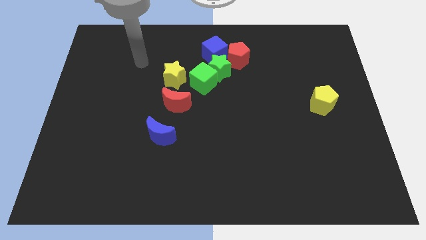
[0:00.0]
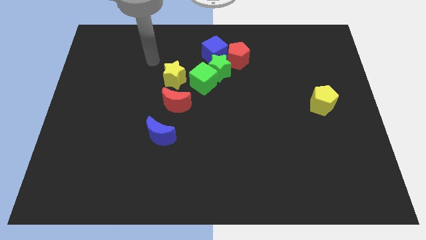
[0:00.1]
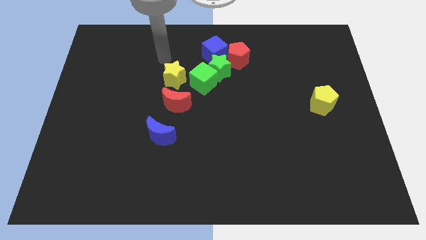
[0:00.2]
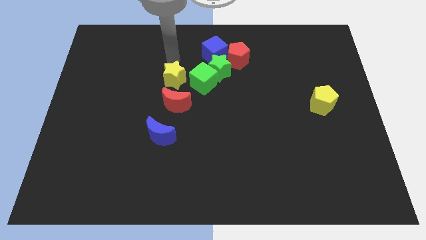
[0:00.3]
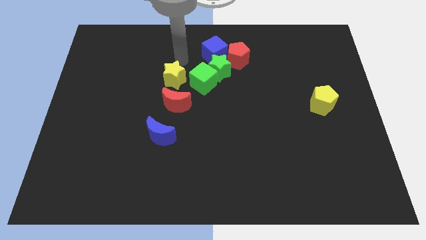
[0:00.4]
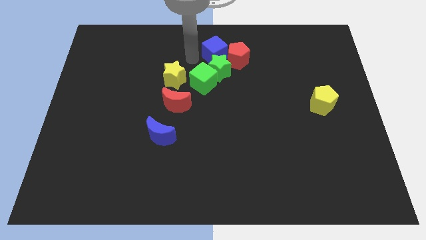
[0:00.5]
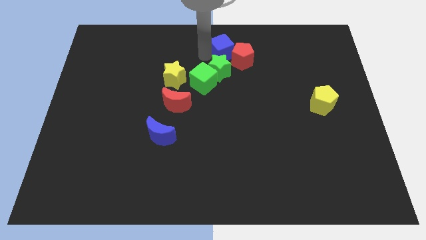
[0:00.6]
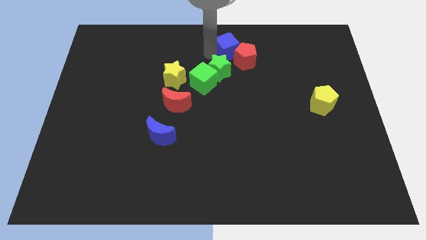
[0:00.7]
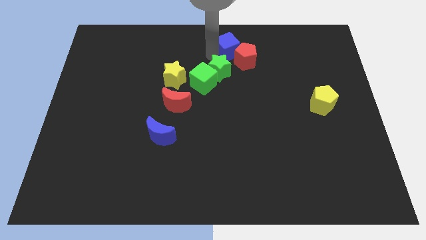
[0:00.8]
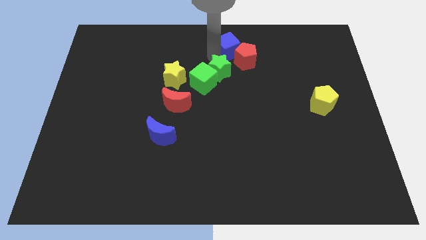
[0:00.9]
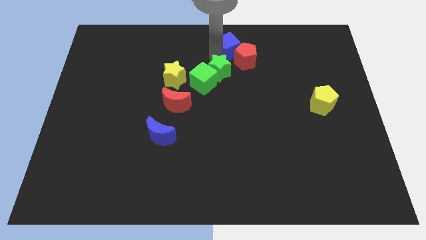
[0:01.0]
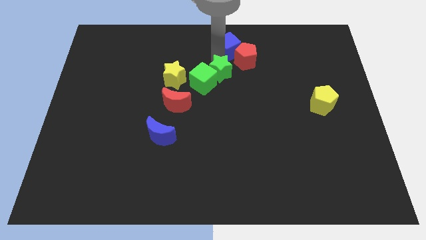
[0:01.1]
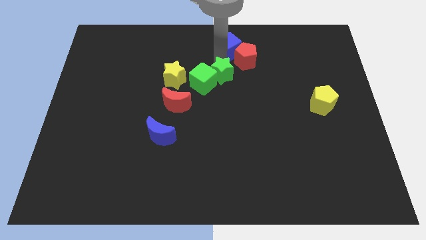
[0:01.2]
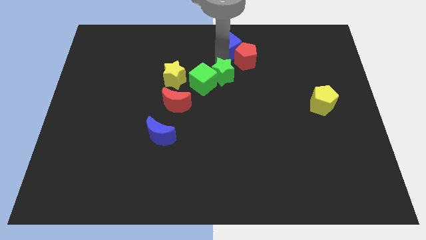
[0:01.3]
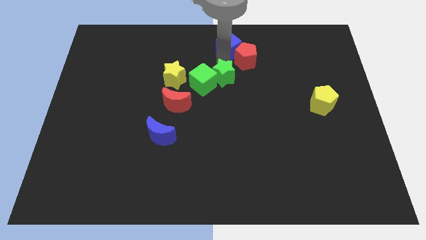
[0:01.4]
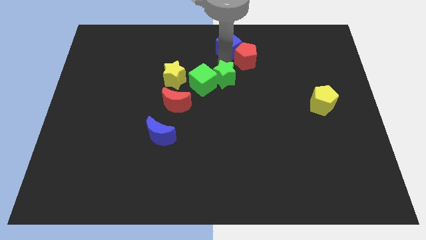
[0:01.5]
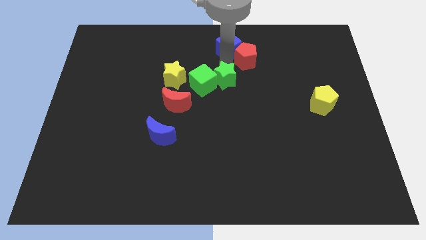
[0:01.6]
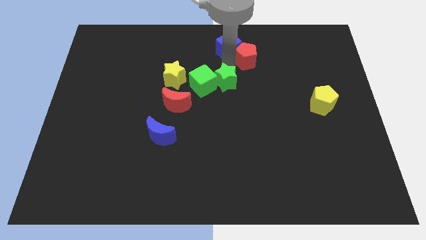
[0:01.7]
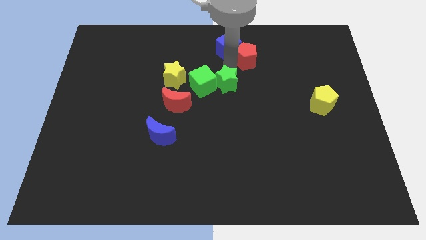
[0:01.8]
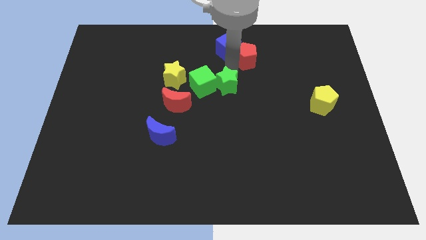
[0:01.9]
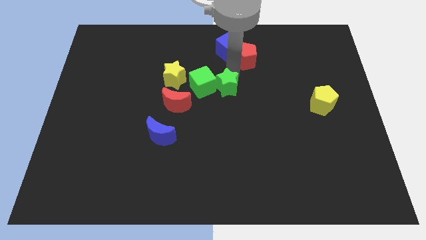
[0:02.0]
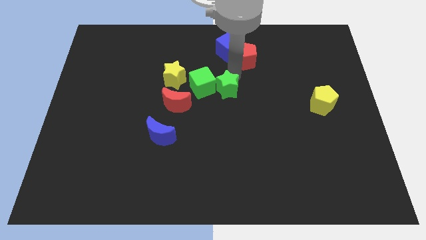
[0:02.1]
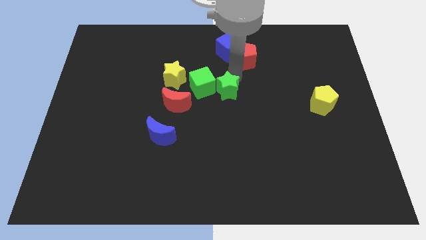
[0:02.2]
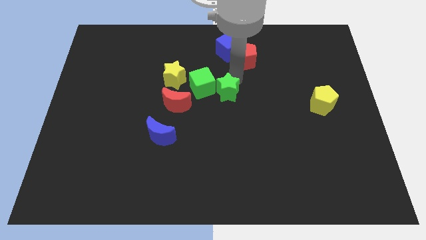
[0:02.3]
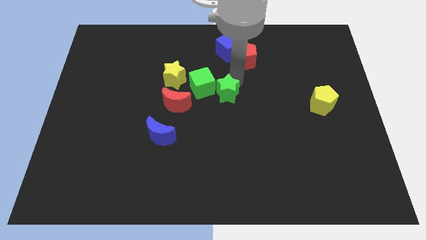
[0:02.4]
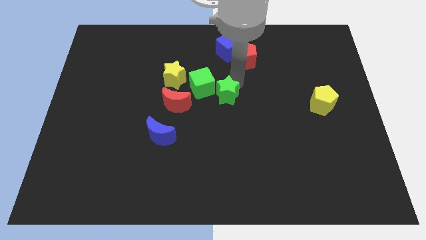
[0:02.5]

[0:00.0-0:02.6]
move the green star away from the group

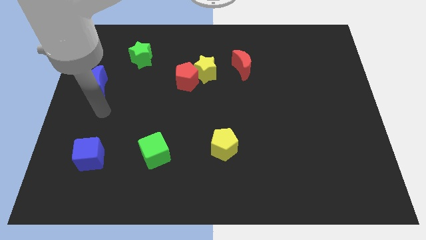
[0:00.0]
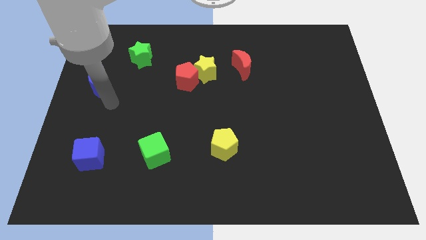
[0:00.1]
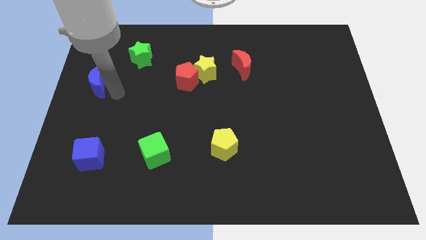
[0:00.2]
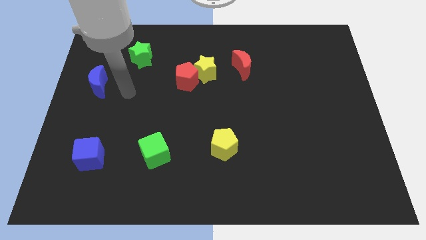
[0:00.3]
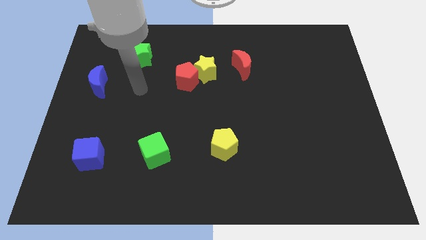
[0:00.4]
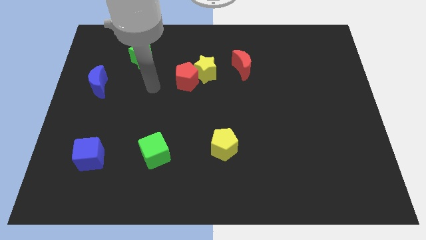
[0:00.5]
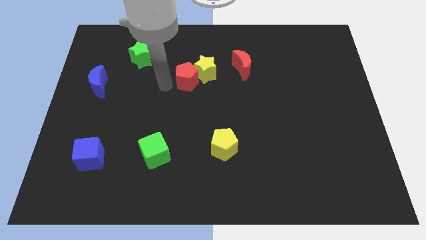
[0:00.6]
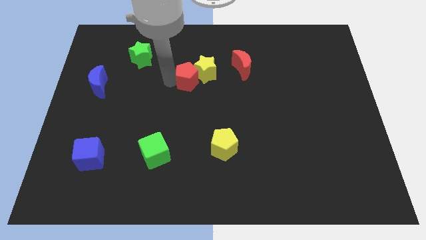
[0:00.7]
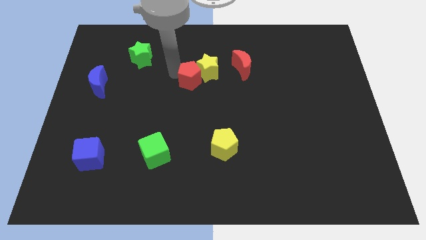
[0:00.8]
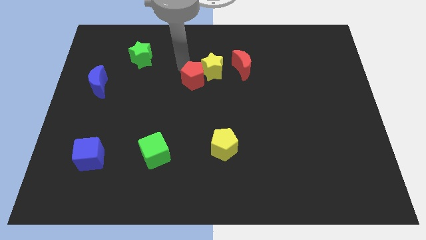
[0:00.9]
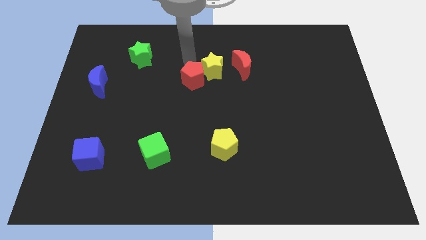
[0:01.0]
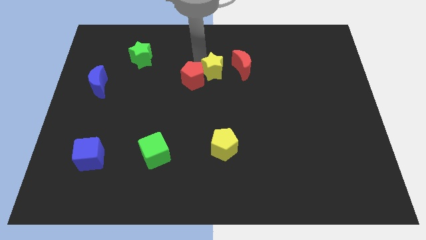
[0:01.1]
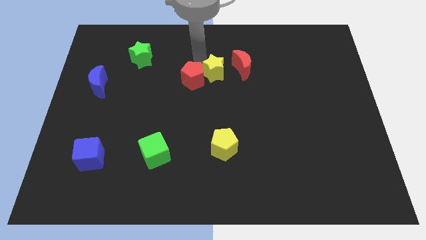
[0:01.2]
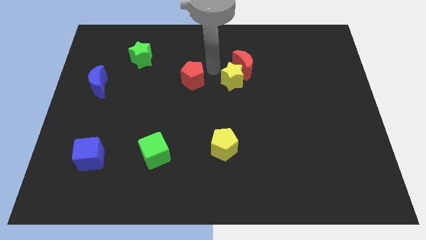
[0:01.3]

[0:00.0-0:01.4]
move the red pentagon away from the yellow star

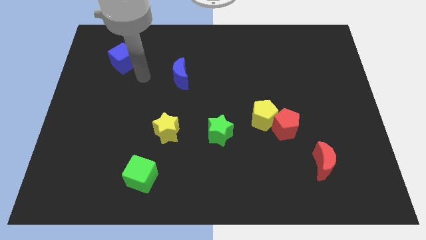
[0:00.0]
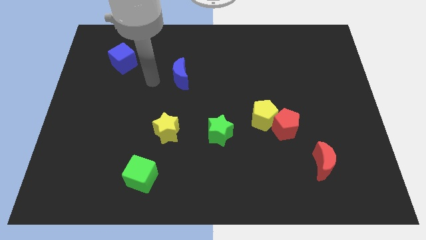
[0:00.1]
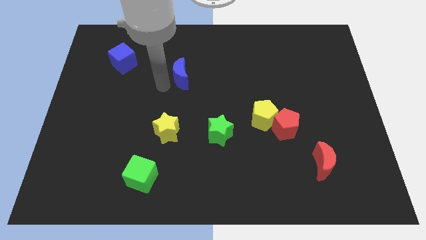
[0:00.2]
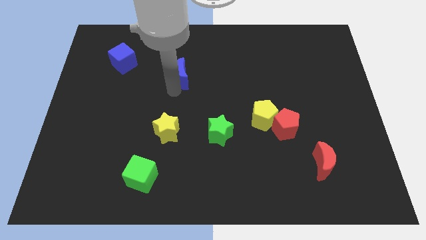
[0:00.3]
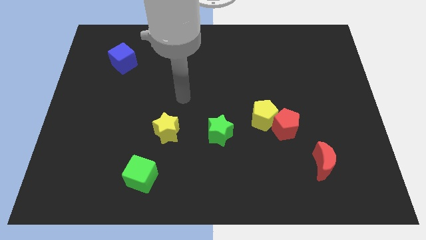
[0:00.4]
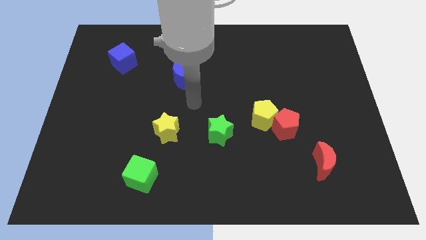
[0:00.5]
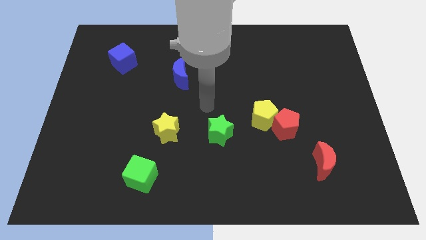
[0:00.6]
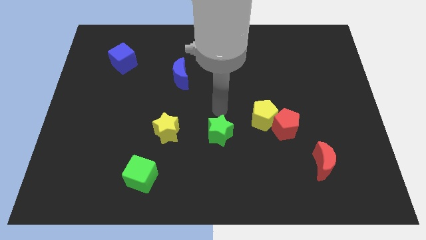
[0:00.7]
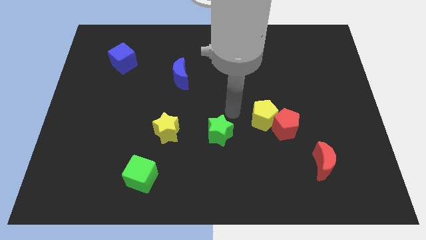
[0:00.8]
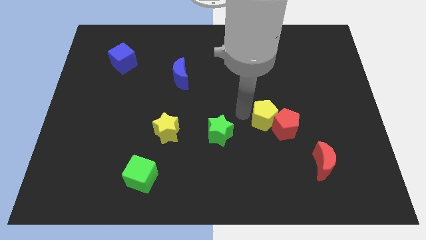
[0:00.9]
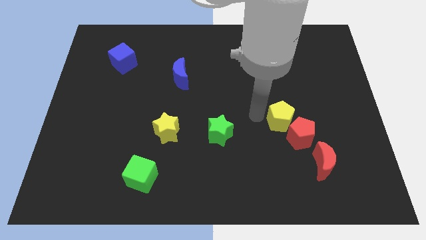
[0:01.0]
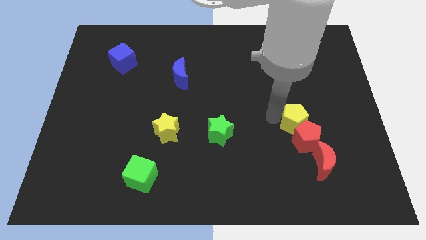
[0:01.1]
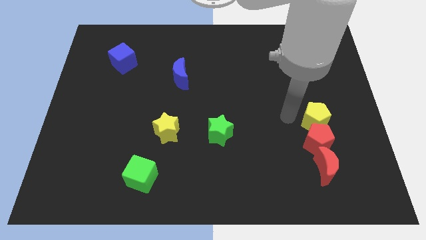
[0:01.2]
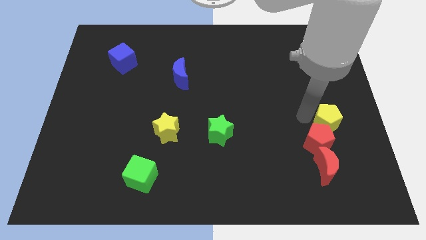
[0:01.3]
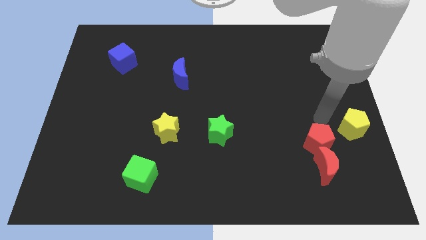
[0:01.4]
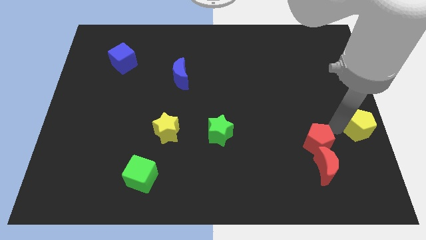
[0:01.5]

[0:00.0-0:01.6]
move the red pentagon away from the yellow pentagon

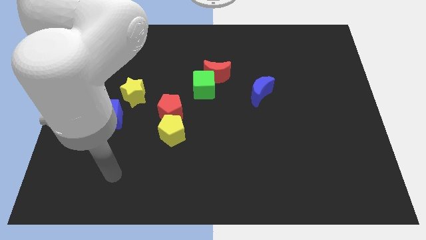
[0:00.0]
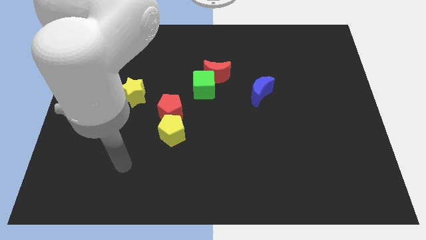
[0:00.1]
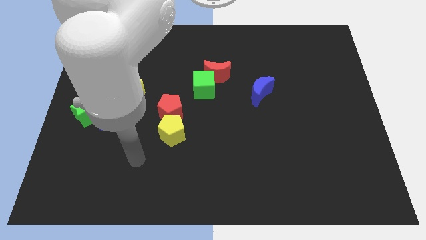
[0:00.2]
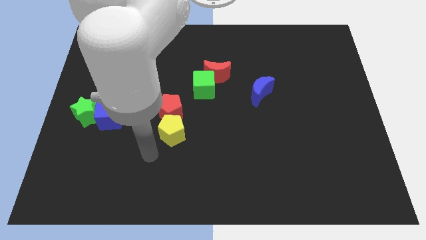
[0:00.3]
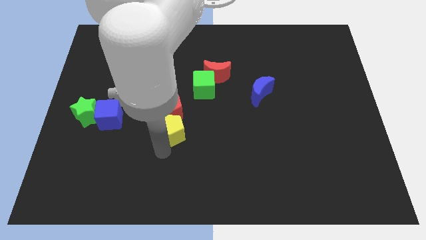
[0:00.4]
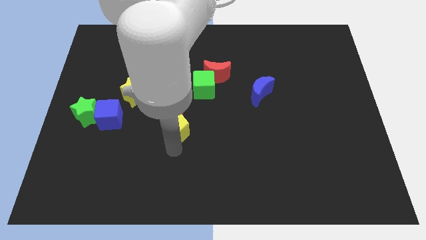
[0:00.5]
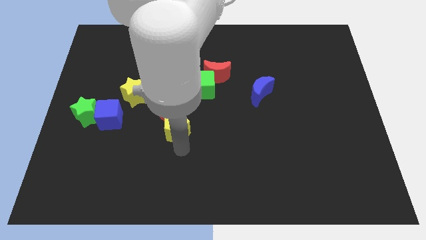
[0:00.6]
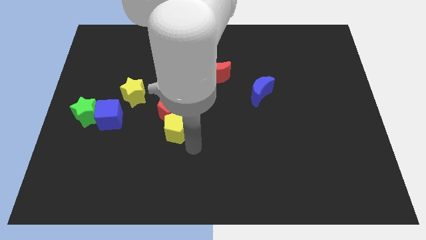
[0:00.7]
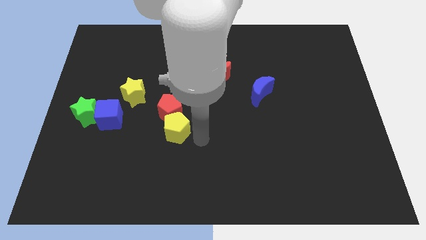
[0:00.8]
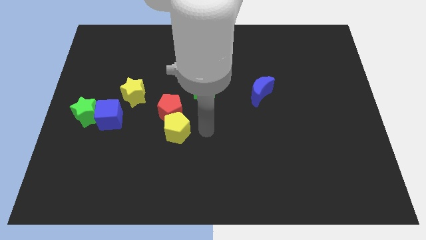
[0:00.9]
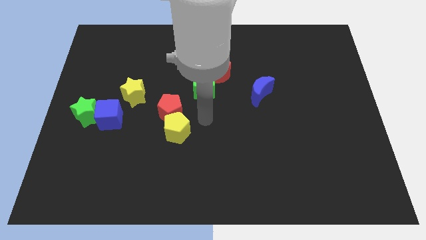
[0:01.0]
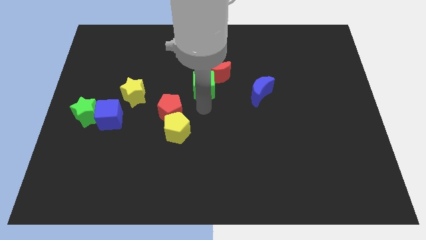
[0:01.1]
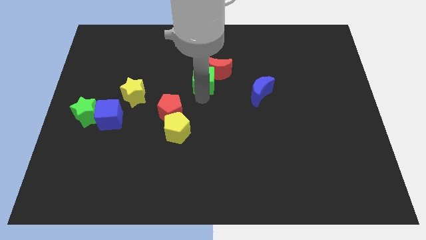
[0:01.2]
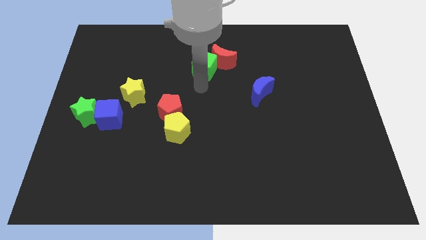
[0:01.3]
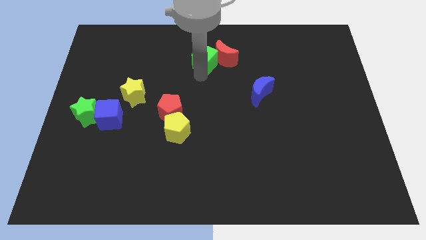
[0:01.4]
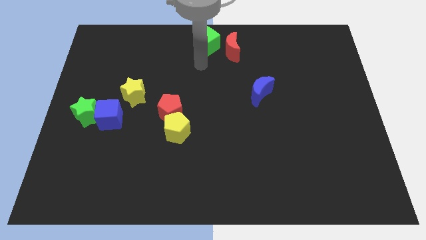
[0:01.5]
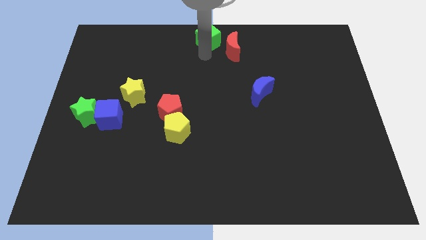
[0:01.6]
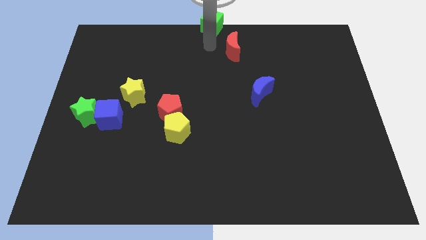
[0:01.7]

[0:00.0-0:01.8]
move the red moon away from the green cube

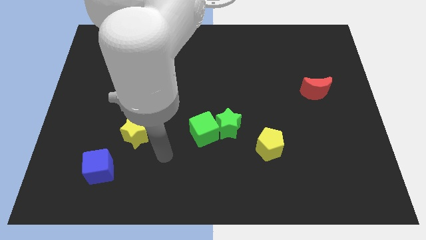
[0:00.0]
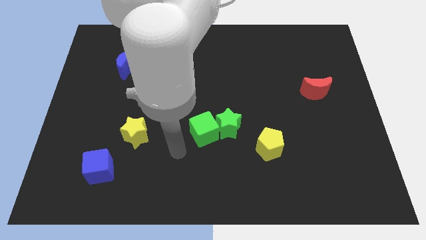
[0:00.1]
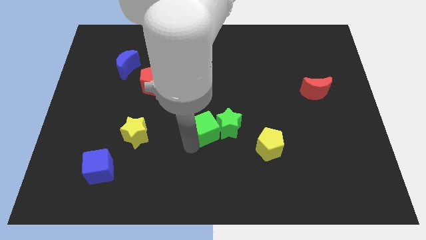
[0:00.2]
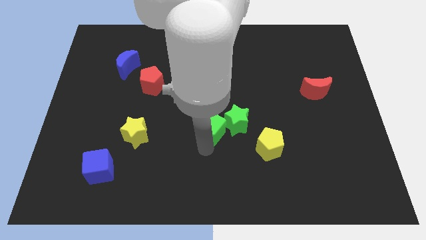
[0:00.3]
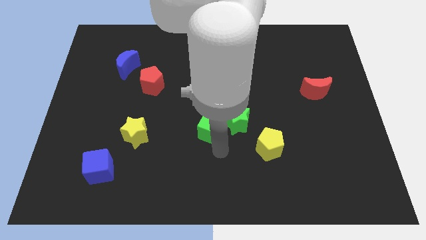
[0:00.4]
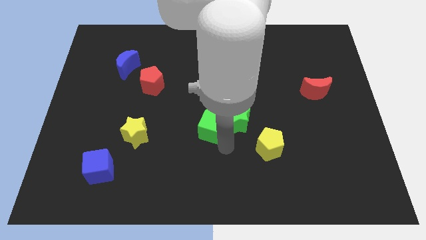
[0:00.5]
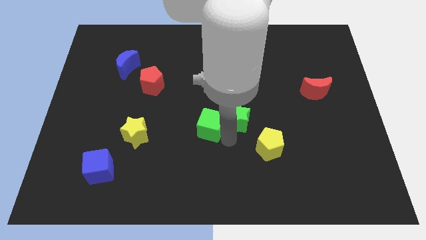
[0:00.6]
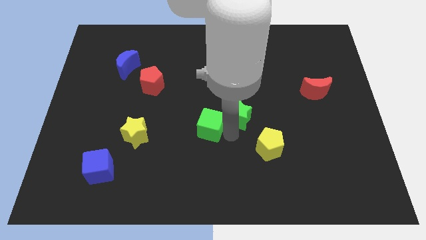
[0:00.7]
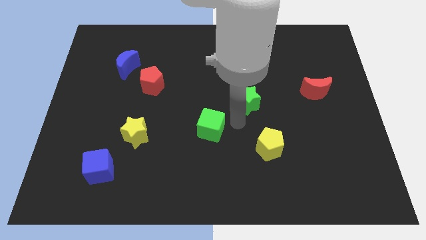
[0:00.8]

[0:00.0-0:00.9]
move the green cube away from the green star

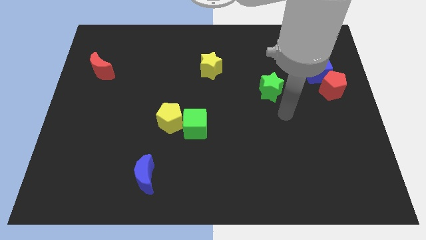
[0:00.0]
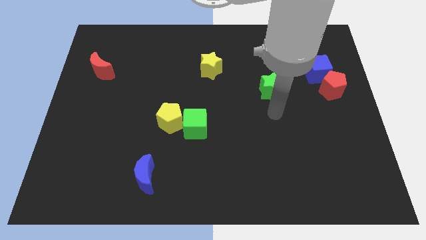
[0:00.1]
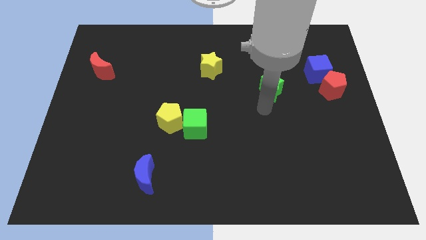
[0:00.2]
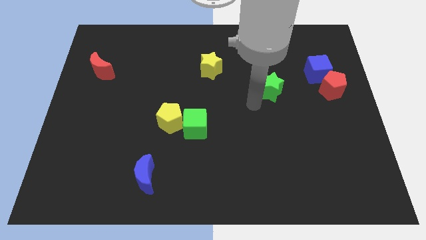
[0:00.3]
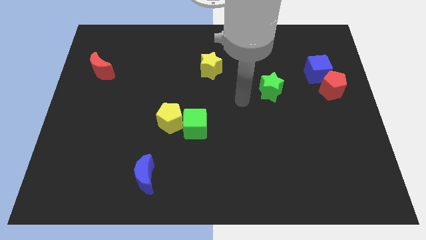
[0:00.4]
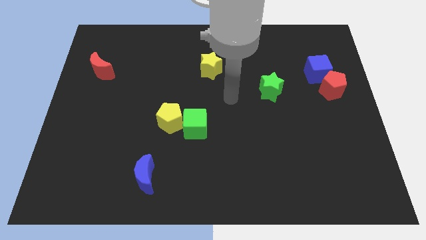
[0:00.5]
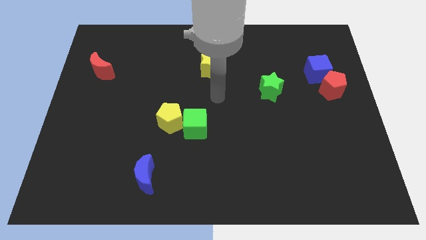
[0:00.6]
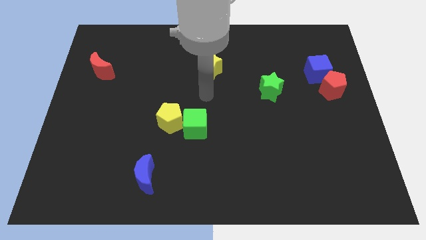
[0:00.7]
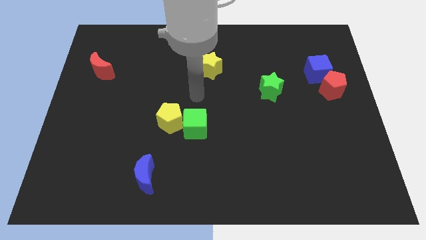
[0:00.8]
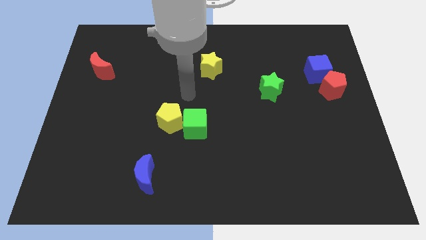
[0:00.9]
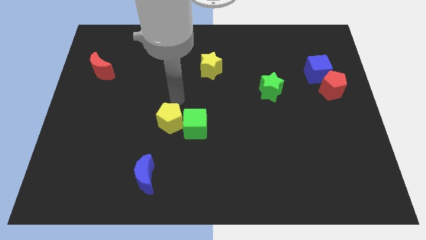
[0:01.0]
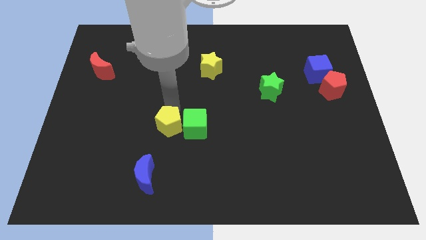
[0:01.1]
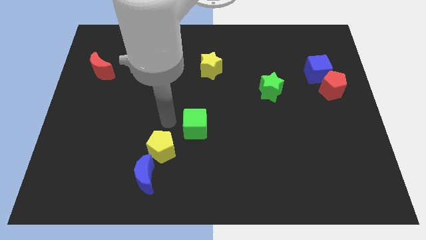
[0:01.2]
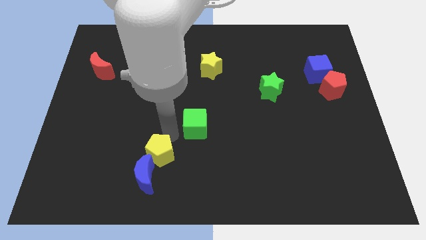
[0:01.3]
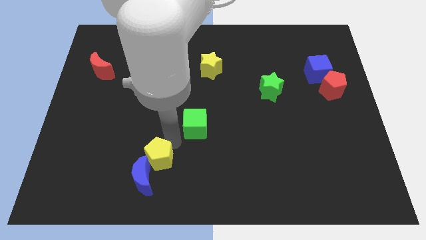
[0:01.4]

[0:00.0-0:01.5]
pull the green cube apart from the yellow pentagon
